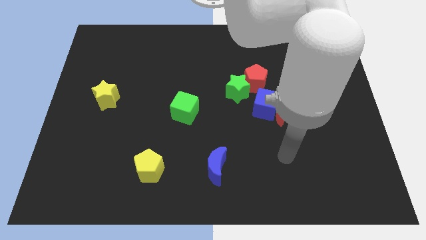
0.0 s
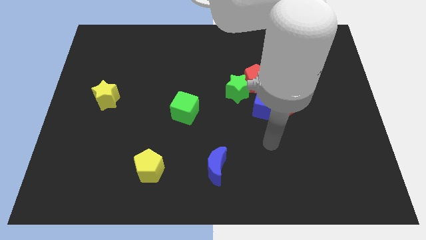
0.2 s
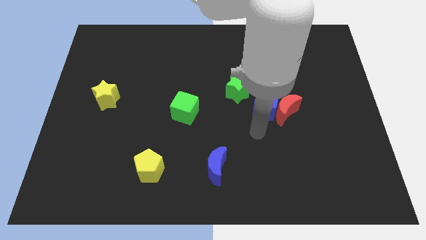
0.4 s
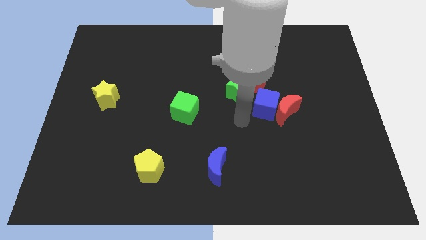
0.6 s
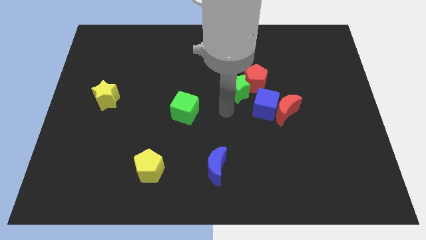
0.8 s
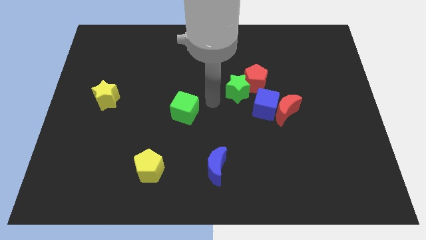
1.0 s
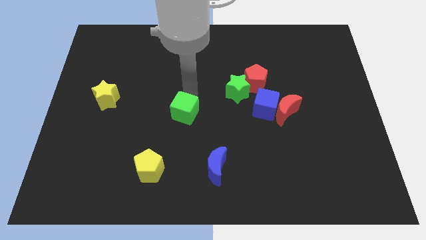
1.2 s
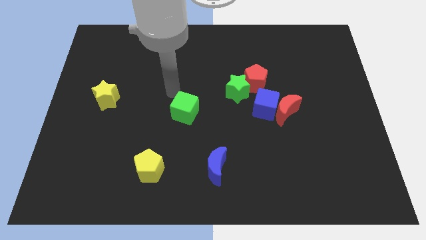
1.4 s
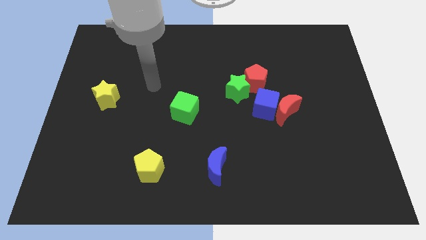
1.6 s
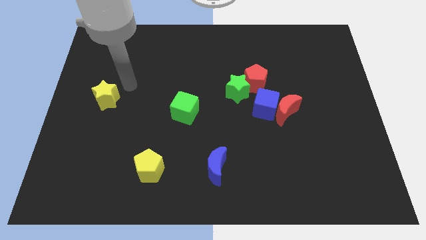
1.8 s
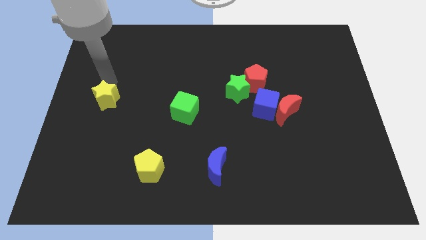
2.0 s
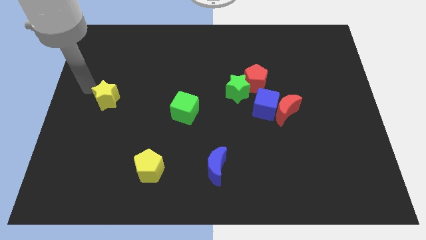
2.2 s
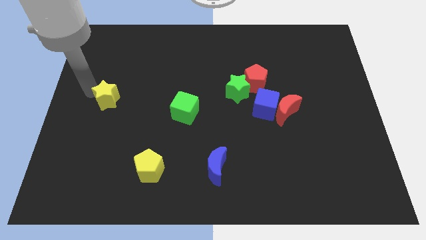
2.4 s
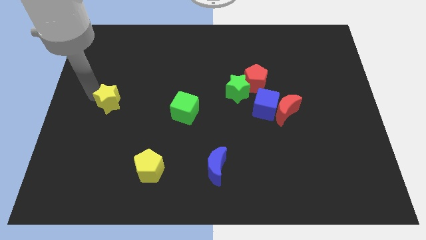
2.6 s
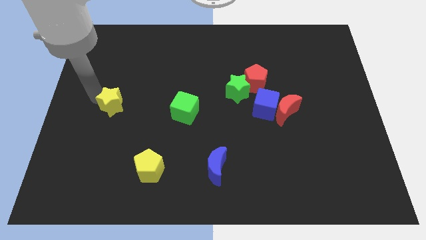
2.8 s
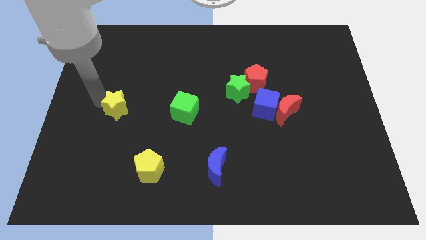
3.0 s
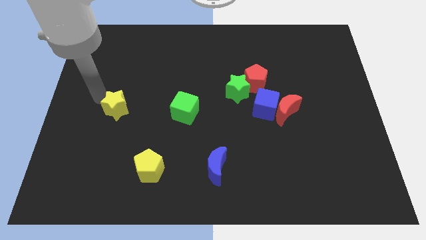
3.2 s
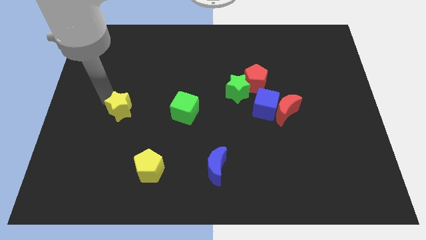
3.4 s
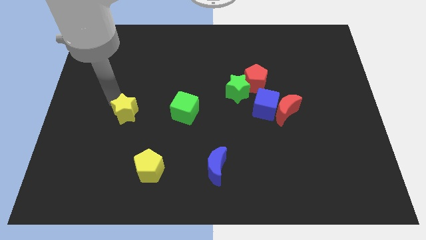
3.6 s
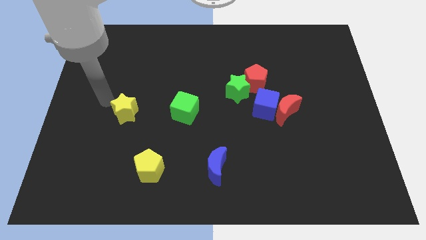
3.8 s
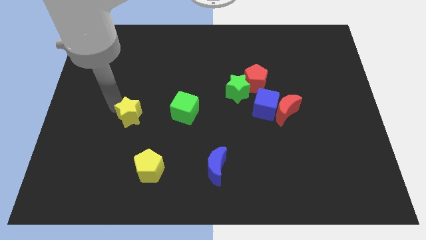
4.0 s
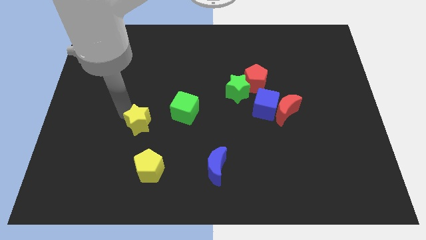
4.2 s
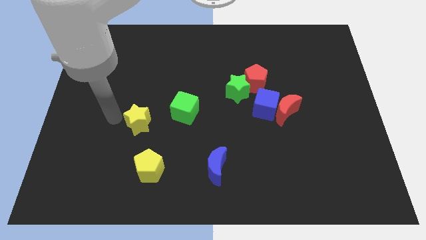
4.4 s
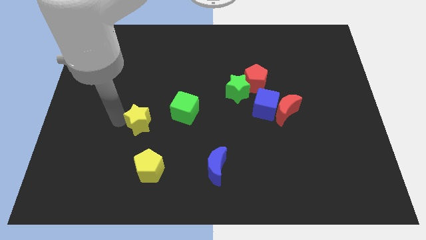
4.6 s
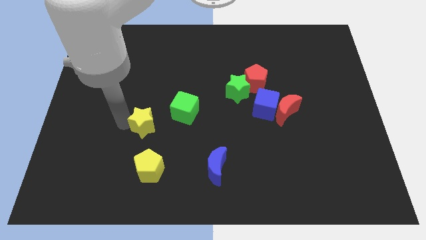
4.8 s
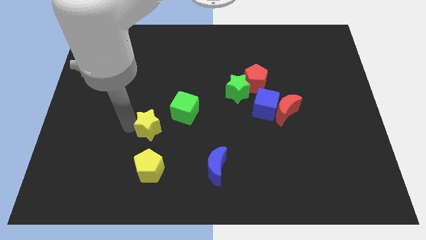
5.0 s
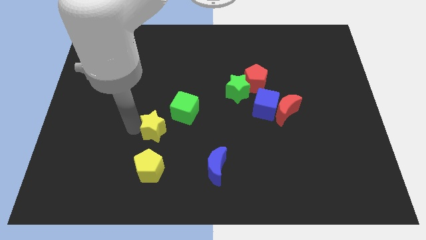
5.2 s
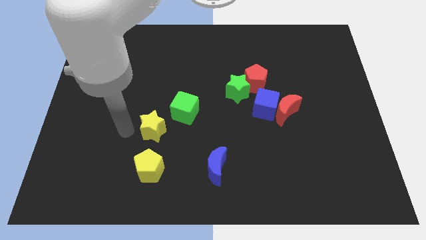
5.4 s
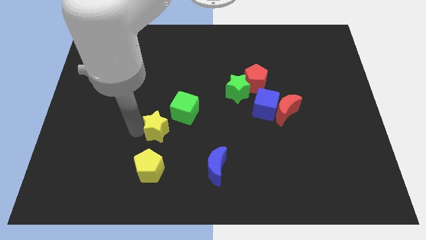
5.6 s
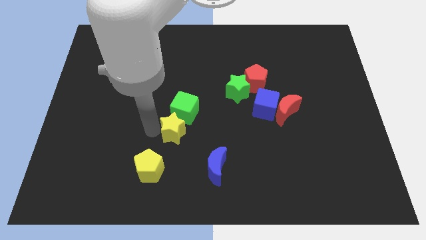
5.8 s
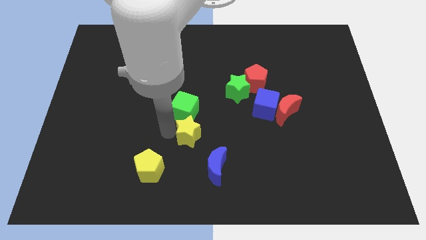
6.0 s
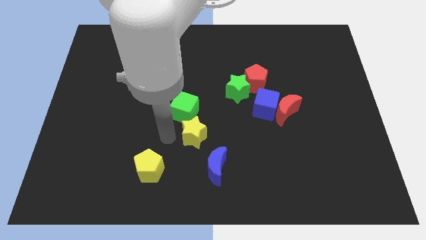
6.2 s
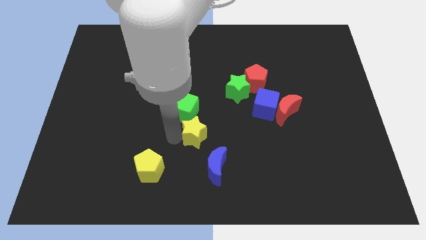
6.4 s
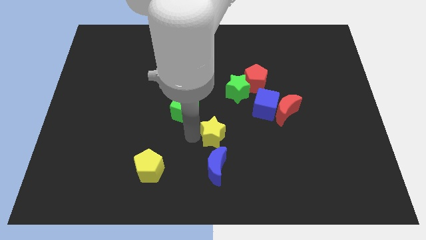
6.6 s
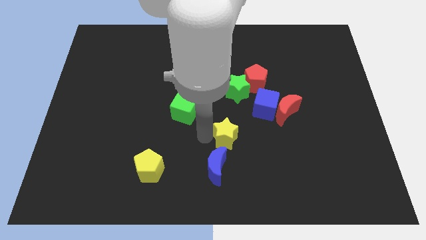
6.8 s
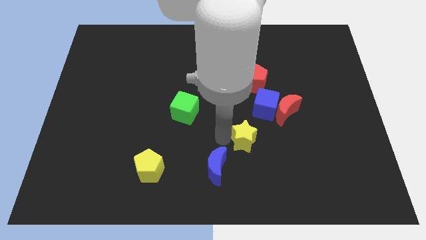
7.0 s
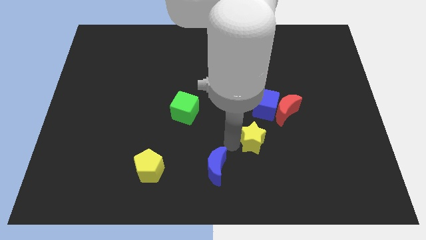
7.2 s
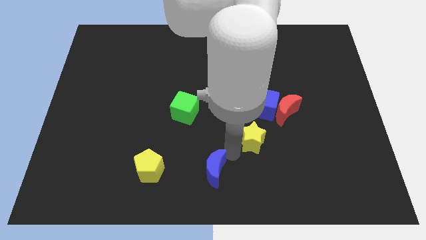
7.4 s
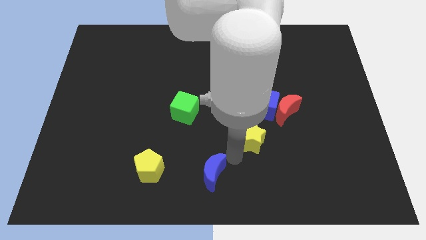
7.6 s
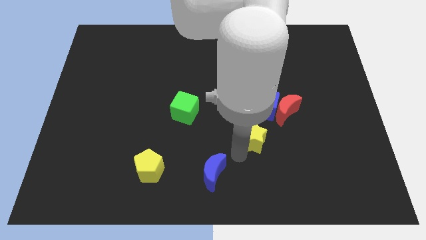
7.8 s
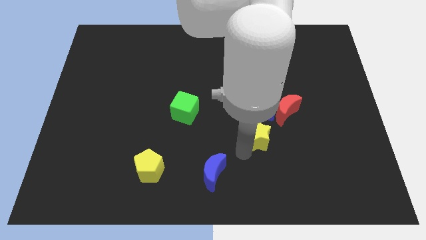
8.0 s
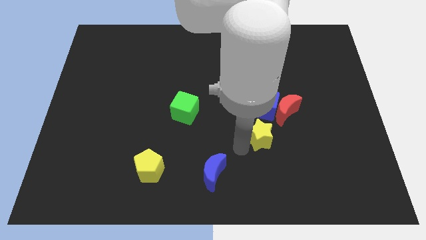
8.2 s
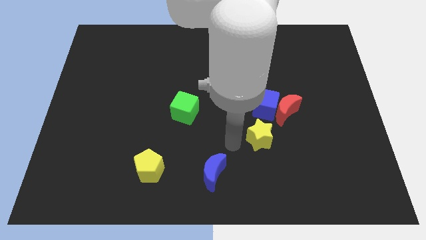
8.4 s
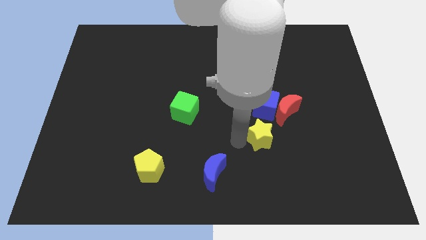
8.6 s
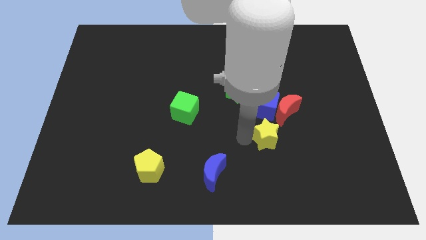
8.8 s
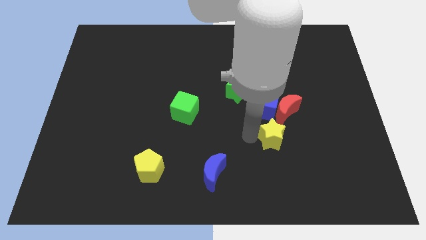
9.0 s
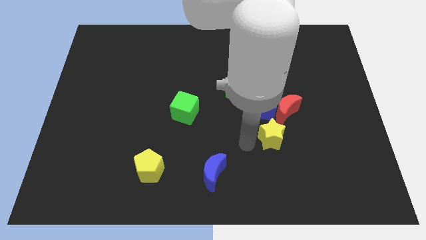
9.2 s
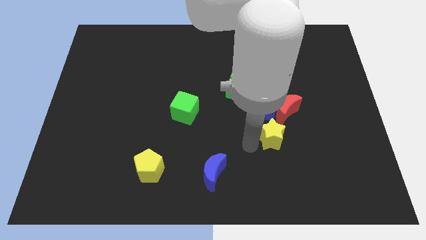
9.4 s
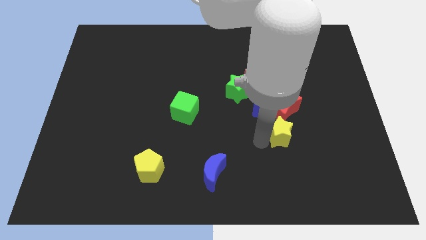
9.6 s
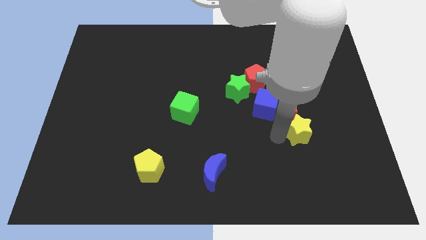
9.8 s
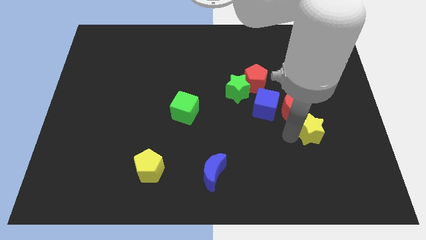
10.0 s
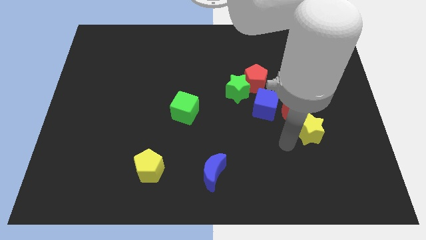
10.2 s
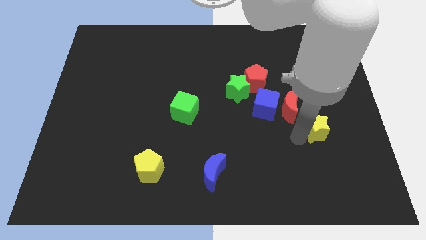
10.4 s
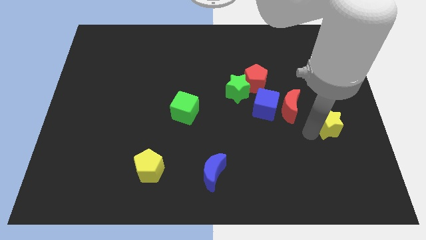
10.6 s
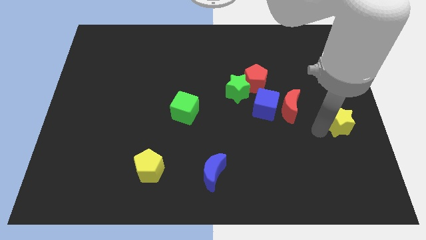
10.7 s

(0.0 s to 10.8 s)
slide the yellow star to the center right
